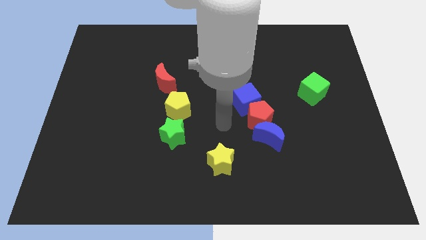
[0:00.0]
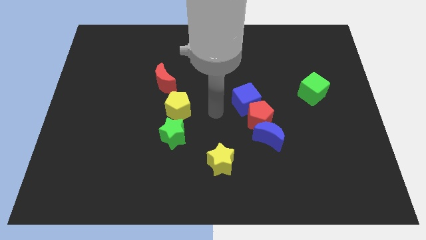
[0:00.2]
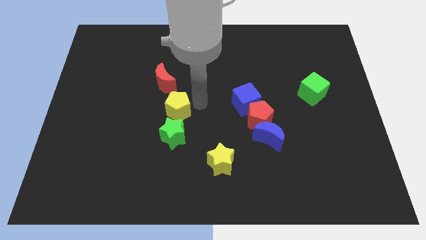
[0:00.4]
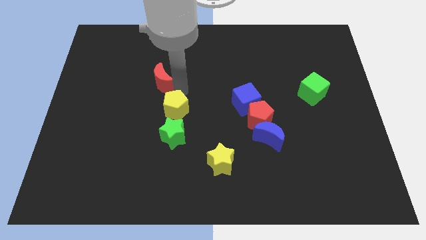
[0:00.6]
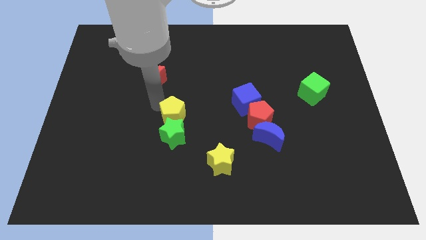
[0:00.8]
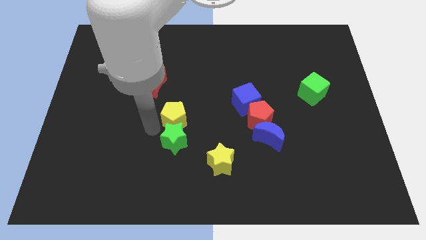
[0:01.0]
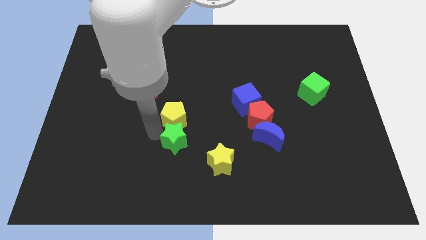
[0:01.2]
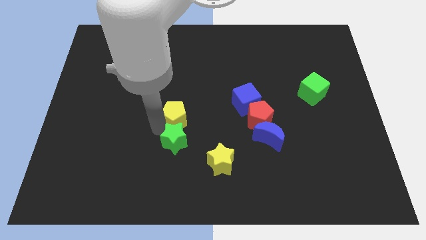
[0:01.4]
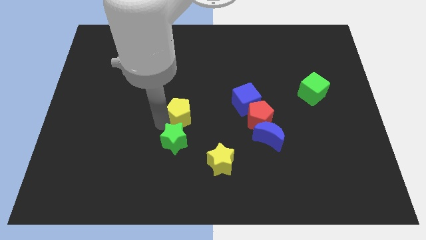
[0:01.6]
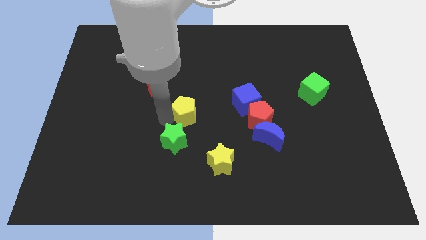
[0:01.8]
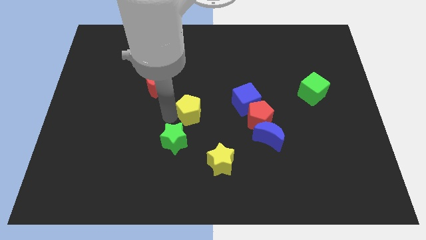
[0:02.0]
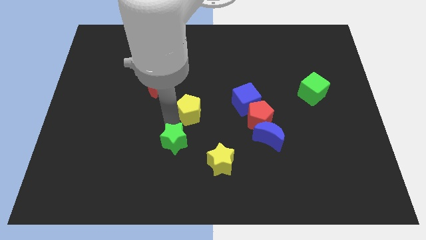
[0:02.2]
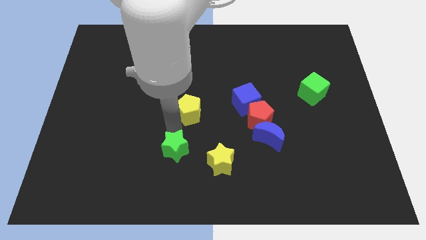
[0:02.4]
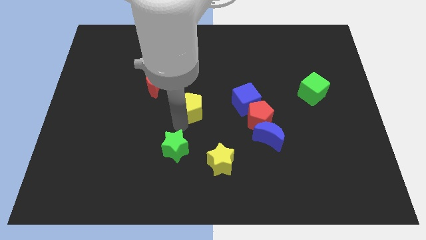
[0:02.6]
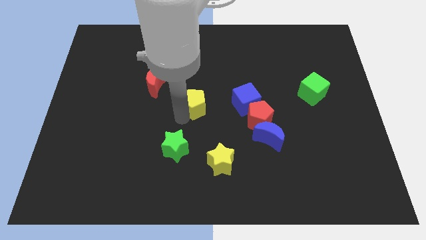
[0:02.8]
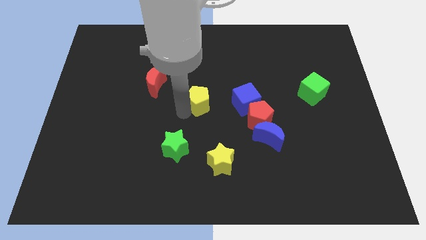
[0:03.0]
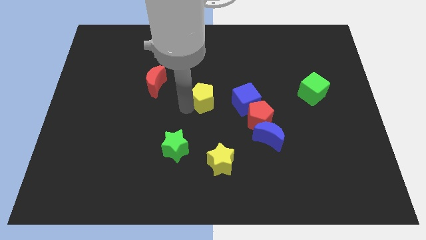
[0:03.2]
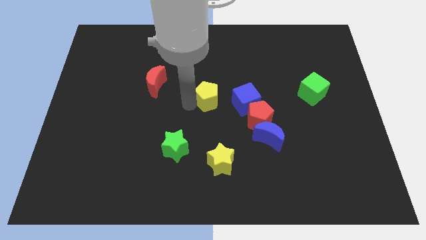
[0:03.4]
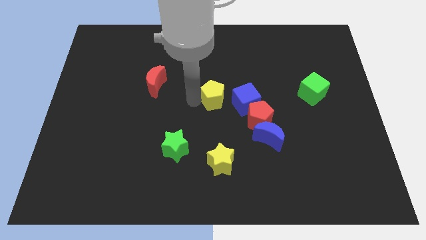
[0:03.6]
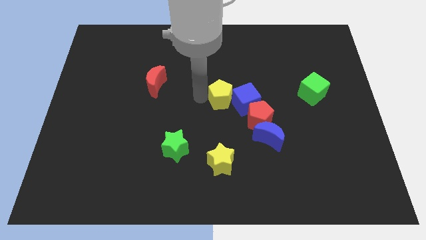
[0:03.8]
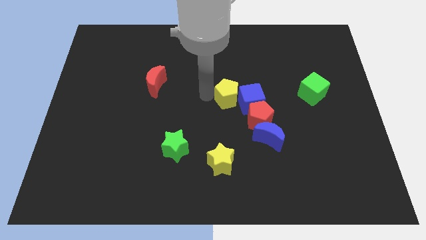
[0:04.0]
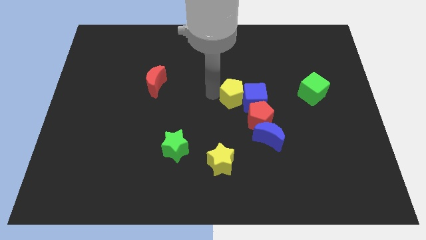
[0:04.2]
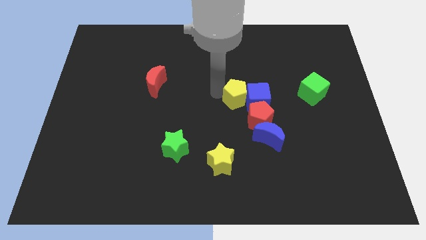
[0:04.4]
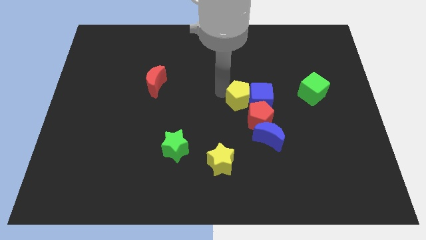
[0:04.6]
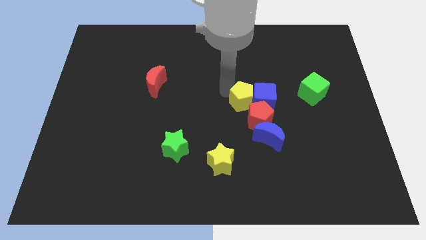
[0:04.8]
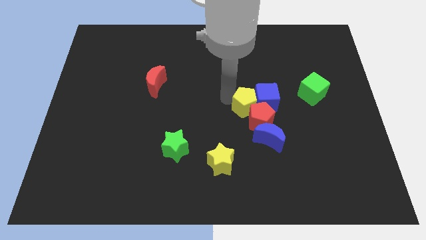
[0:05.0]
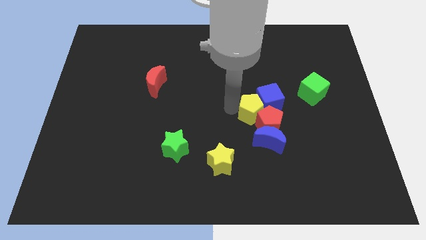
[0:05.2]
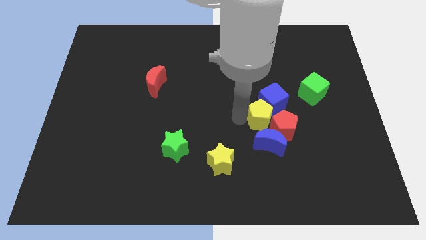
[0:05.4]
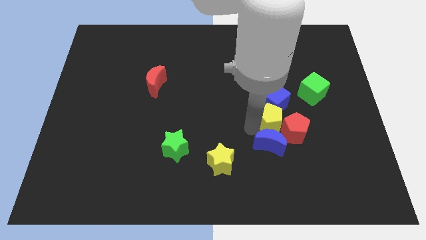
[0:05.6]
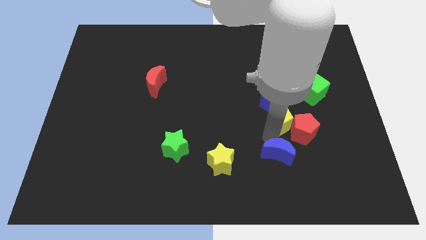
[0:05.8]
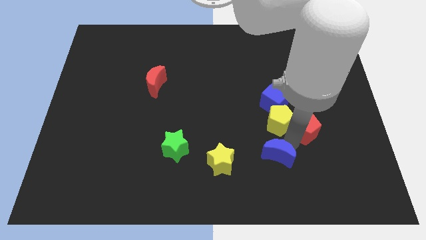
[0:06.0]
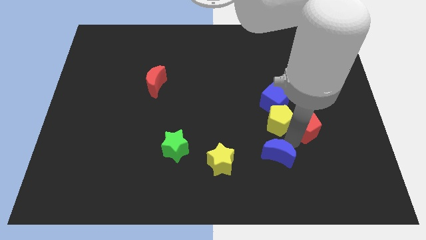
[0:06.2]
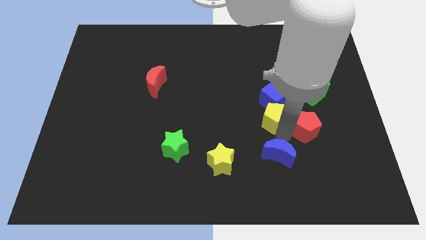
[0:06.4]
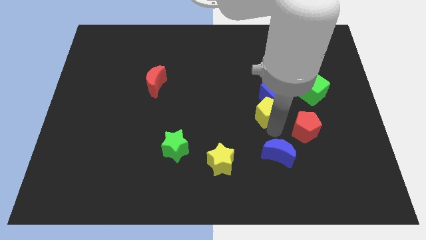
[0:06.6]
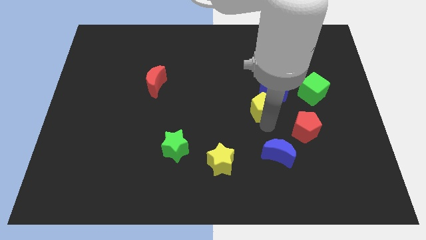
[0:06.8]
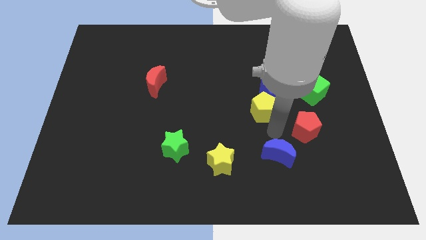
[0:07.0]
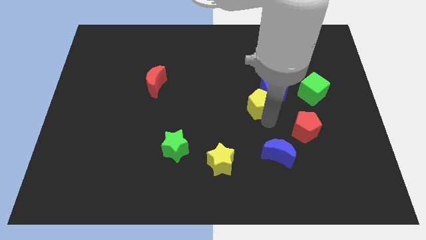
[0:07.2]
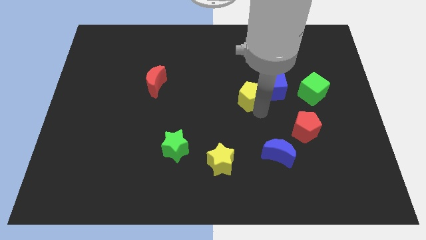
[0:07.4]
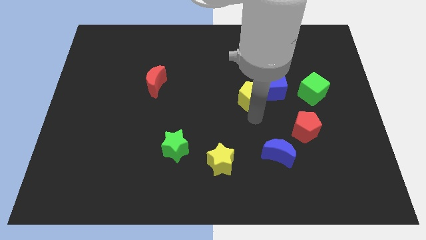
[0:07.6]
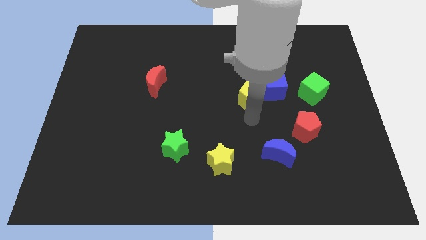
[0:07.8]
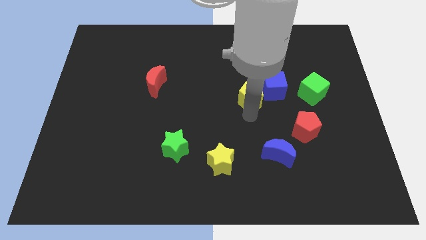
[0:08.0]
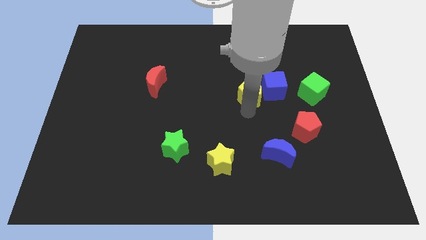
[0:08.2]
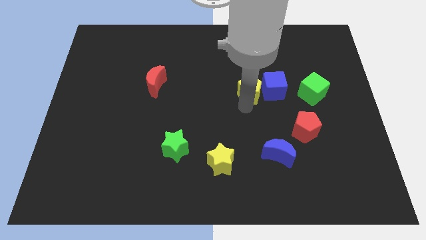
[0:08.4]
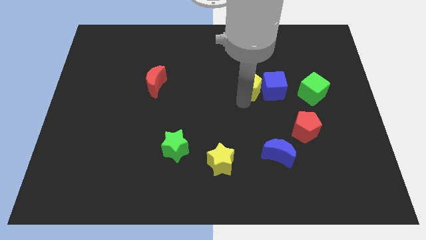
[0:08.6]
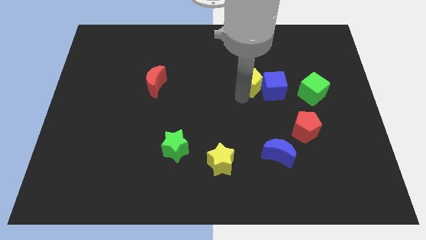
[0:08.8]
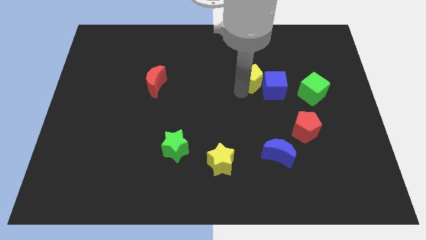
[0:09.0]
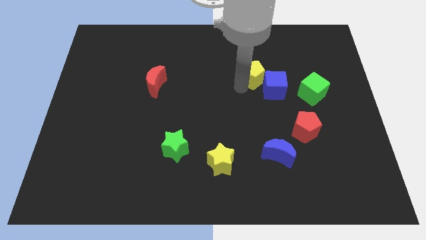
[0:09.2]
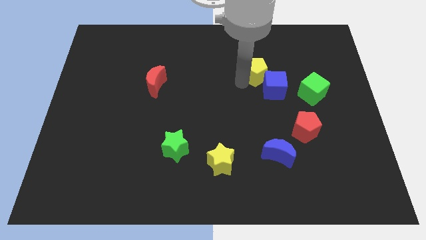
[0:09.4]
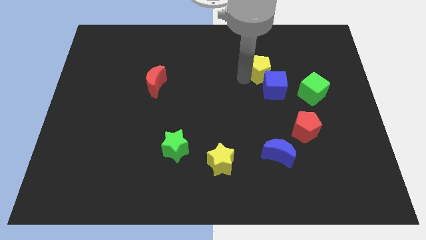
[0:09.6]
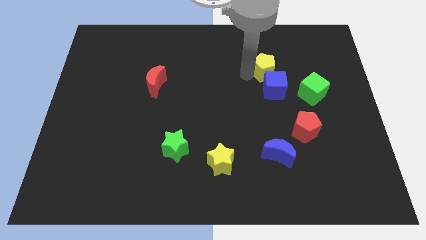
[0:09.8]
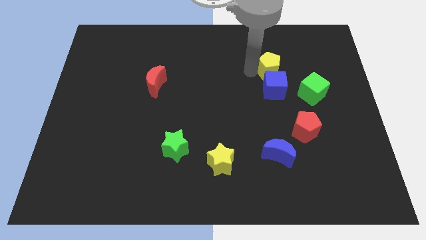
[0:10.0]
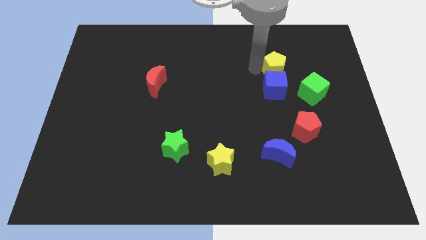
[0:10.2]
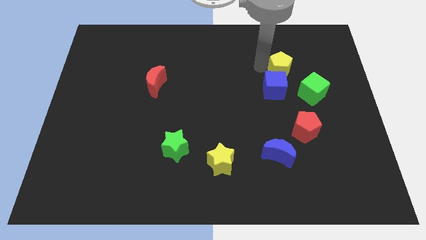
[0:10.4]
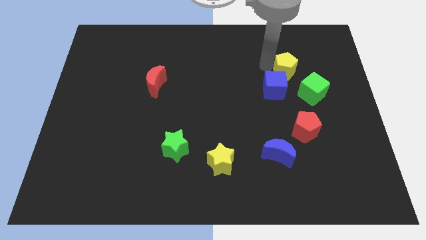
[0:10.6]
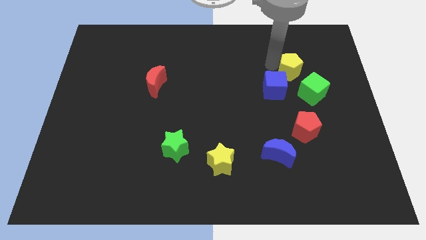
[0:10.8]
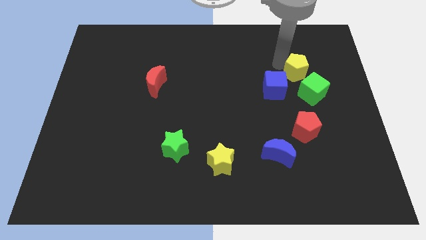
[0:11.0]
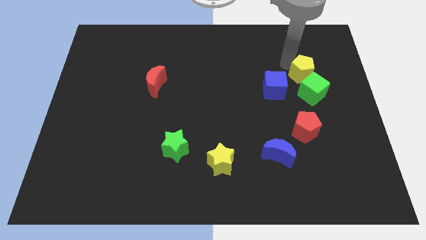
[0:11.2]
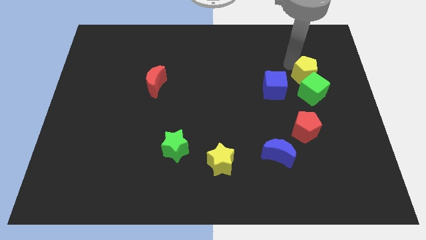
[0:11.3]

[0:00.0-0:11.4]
slide the yellow pentagon to the green cube

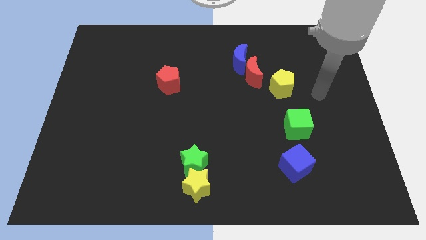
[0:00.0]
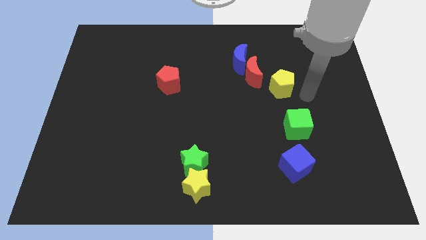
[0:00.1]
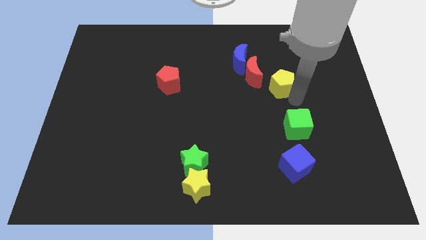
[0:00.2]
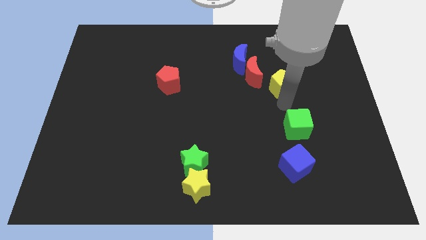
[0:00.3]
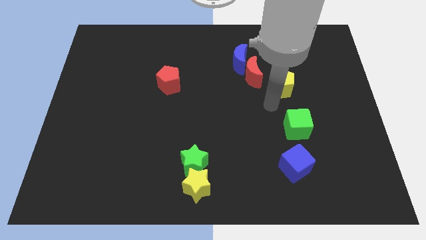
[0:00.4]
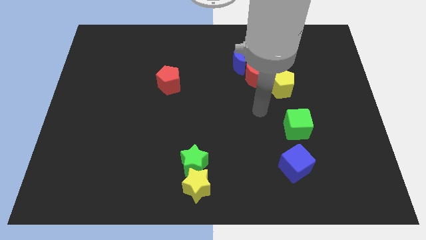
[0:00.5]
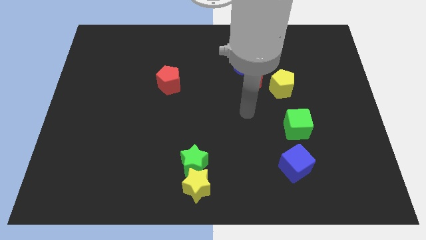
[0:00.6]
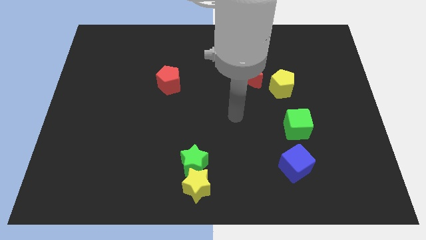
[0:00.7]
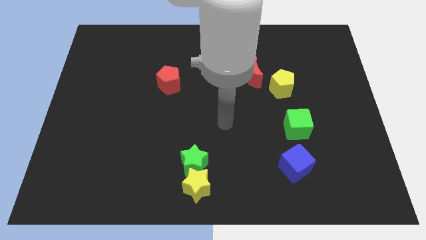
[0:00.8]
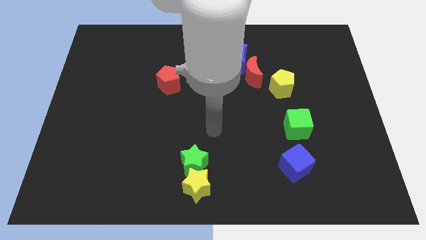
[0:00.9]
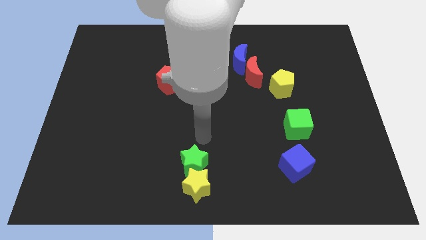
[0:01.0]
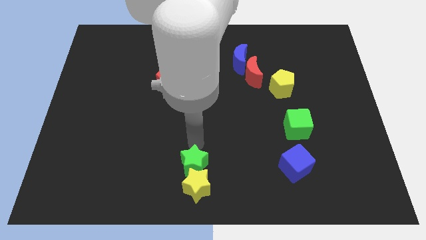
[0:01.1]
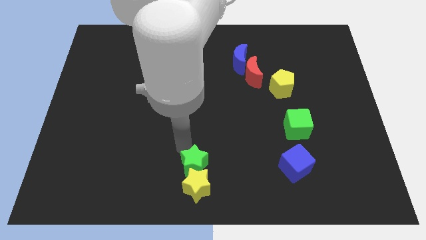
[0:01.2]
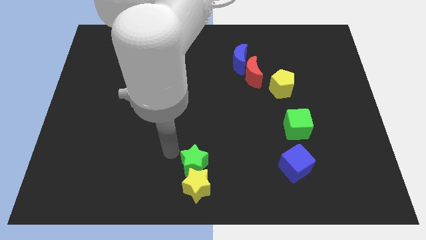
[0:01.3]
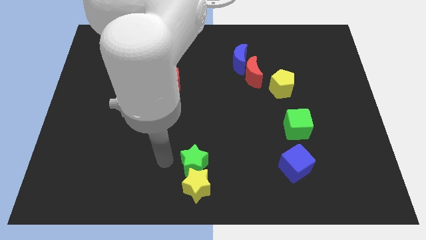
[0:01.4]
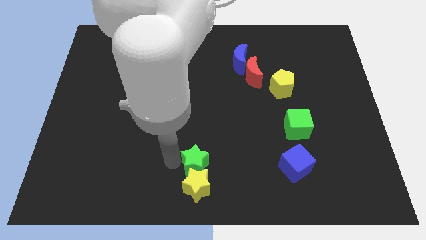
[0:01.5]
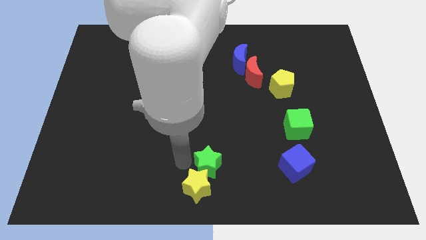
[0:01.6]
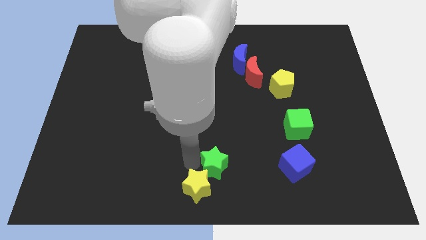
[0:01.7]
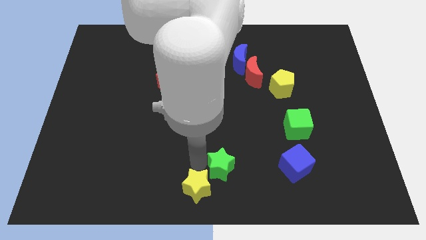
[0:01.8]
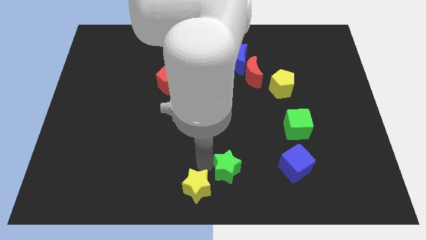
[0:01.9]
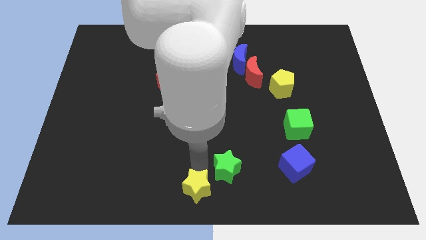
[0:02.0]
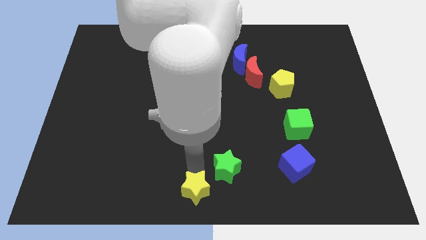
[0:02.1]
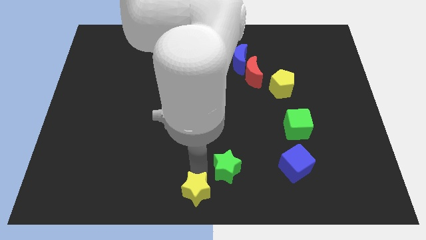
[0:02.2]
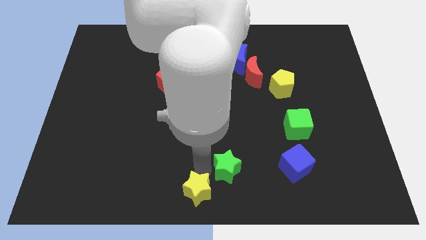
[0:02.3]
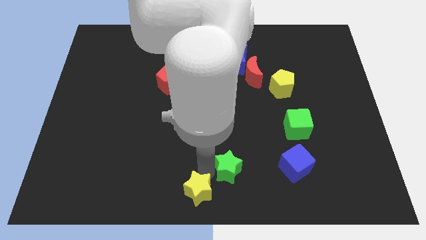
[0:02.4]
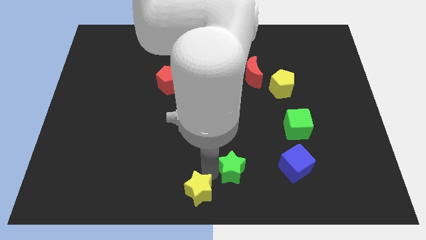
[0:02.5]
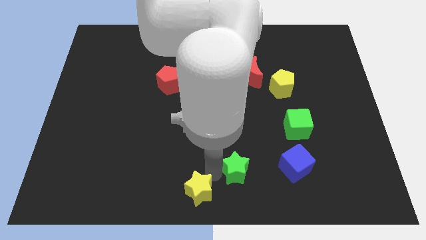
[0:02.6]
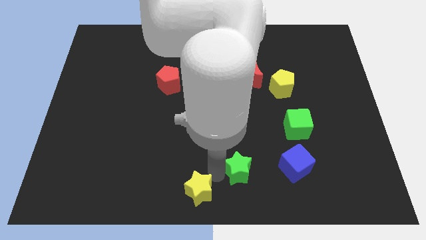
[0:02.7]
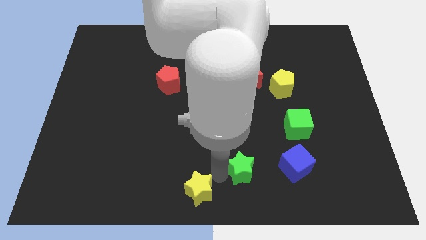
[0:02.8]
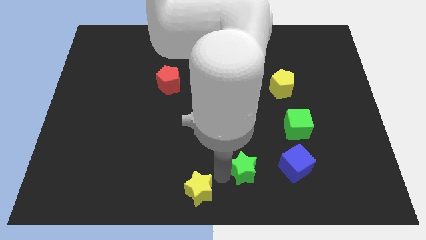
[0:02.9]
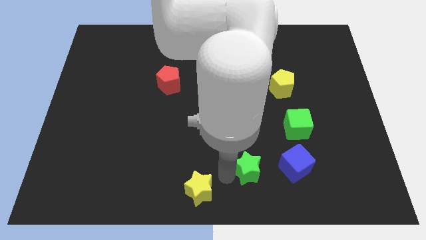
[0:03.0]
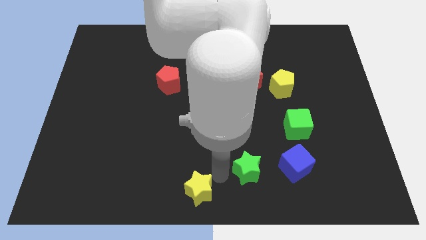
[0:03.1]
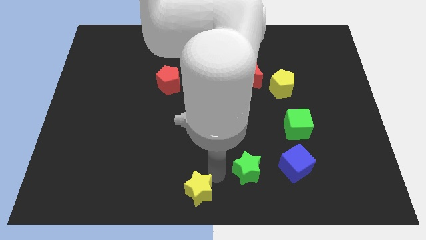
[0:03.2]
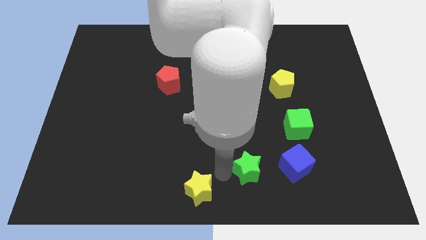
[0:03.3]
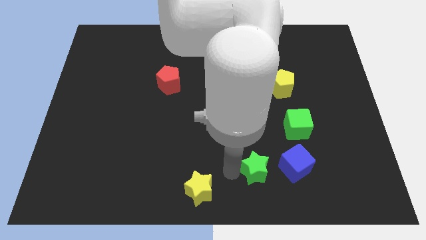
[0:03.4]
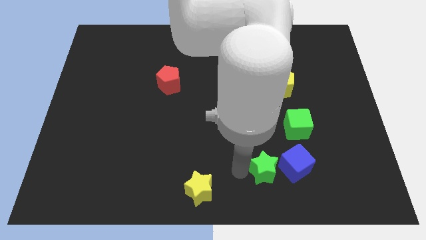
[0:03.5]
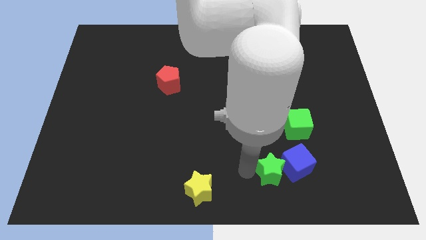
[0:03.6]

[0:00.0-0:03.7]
slide the green star to the blue cube
